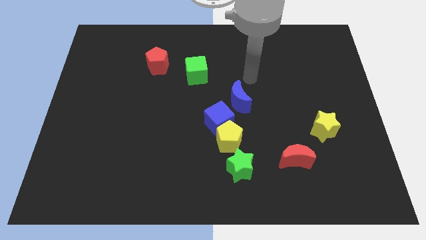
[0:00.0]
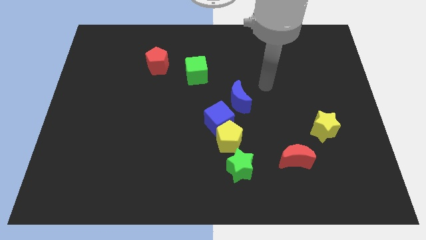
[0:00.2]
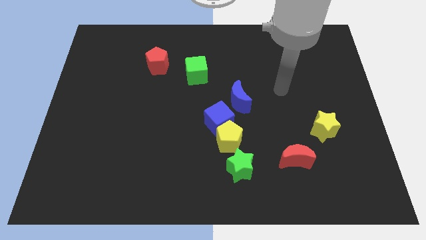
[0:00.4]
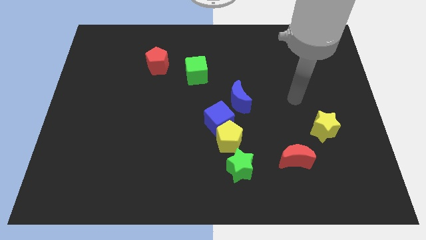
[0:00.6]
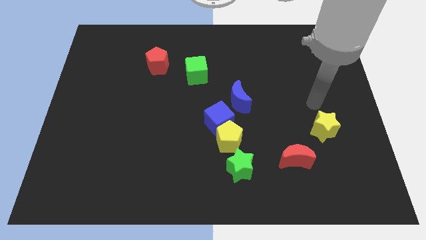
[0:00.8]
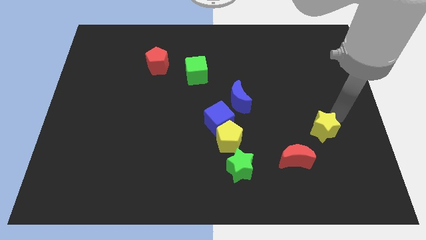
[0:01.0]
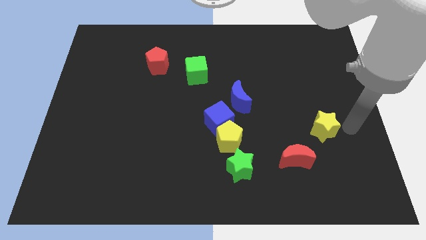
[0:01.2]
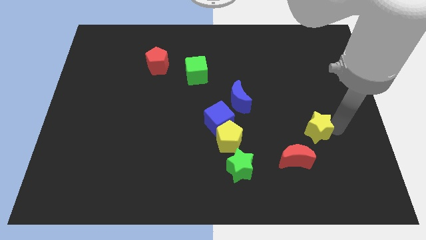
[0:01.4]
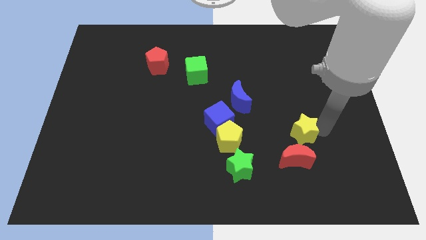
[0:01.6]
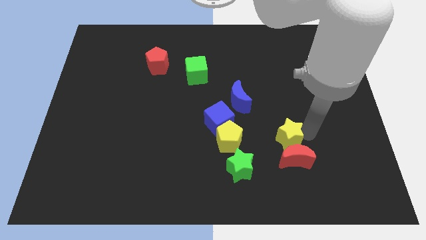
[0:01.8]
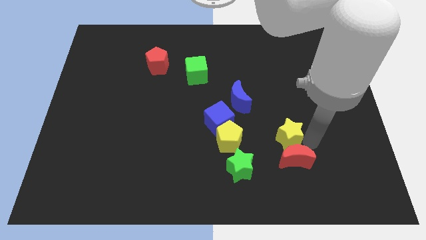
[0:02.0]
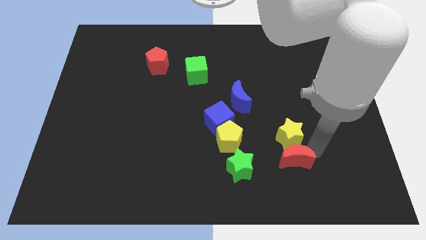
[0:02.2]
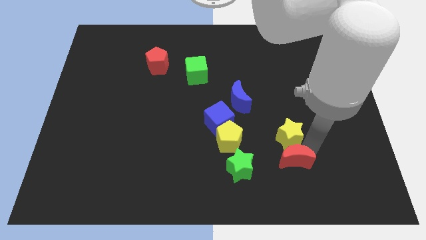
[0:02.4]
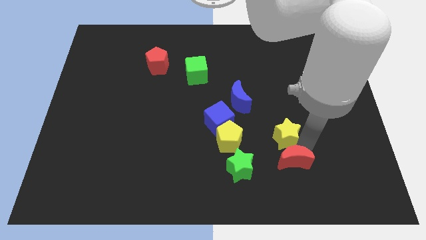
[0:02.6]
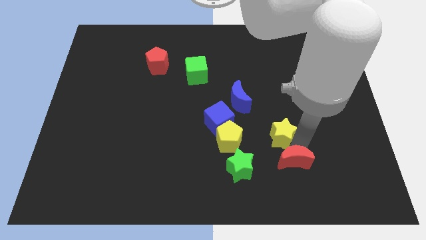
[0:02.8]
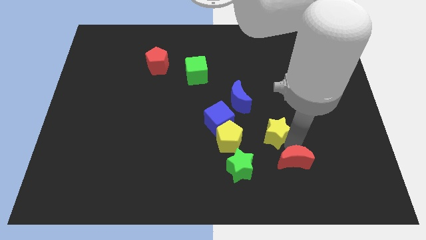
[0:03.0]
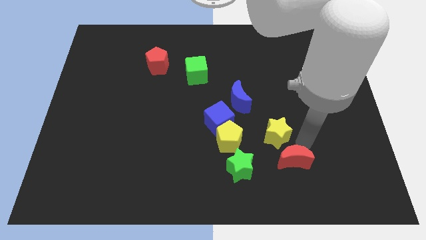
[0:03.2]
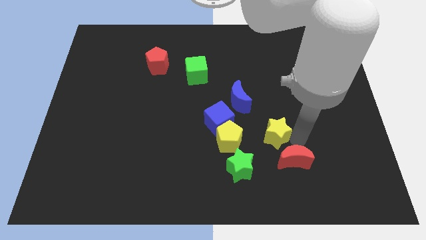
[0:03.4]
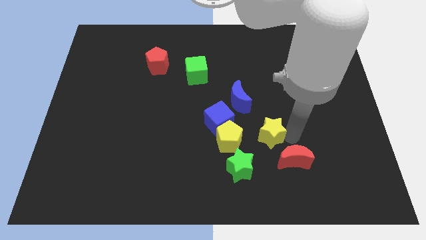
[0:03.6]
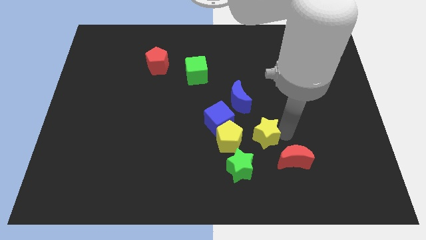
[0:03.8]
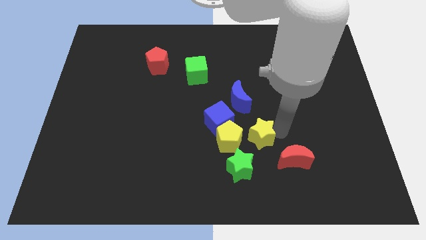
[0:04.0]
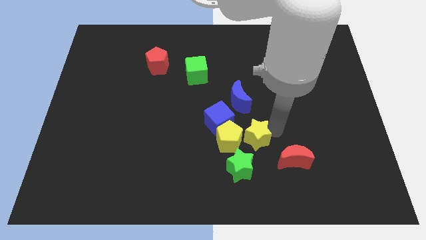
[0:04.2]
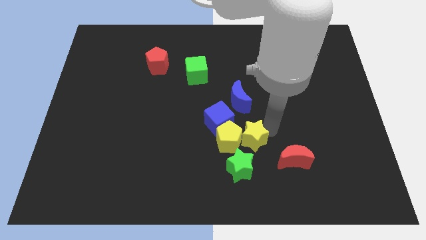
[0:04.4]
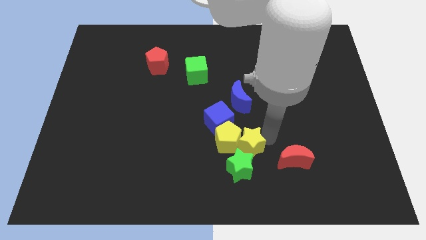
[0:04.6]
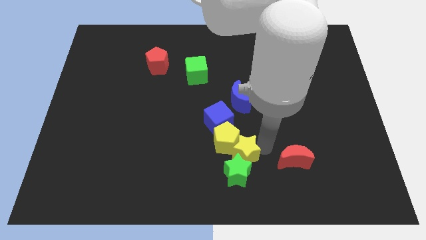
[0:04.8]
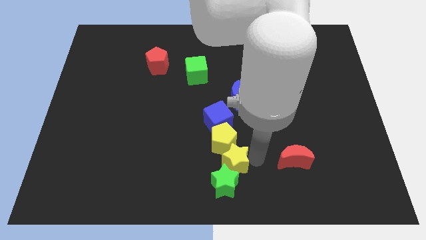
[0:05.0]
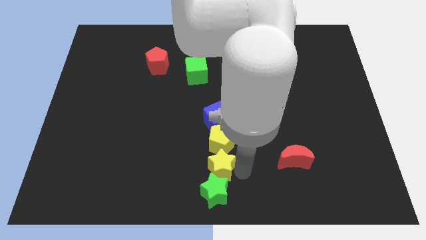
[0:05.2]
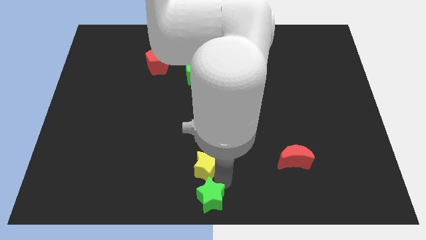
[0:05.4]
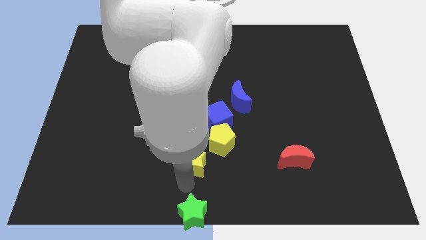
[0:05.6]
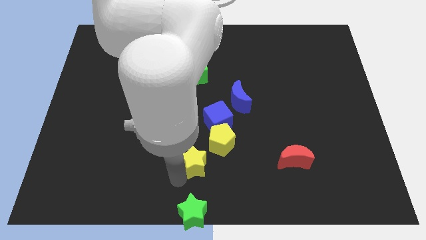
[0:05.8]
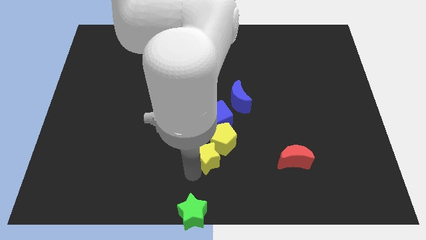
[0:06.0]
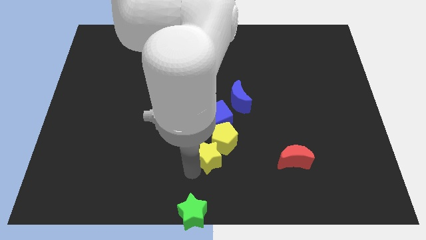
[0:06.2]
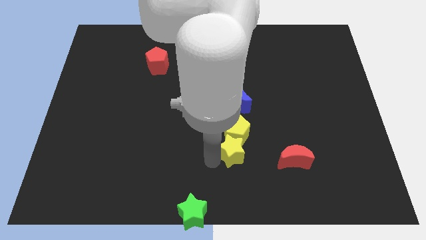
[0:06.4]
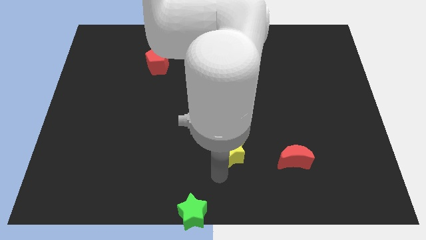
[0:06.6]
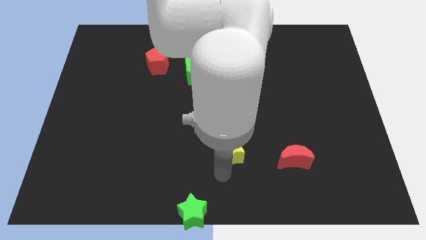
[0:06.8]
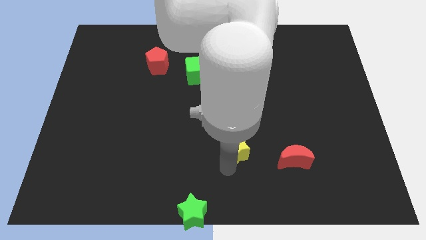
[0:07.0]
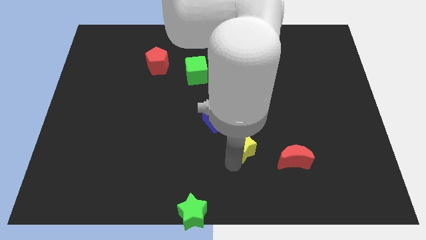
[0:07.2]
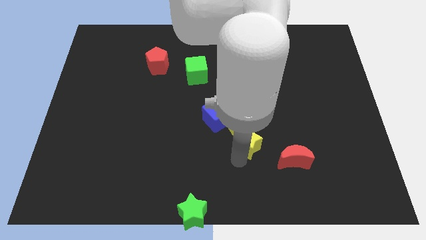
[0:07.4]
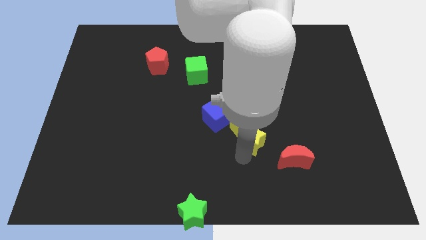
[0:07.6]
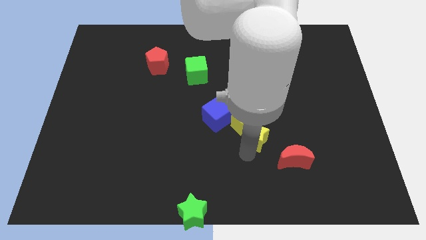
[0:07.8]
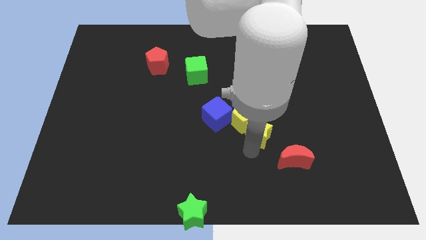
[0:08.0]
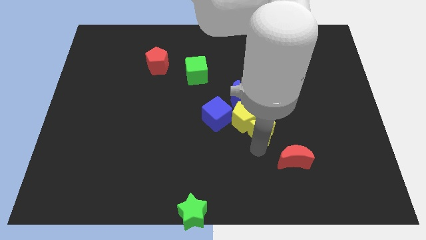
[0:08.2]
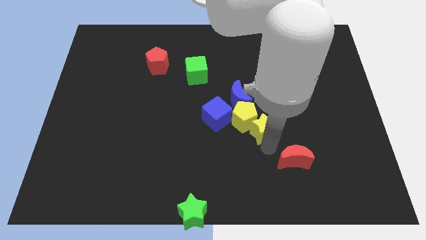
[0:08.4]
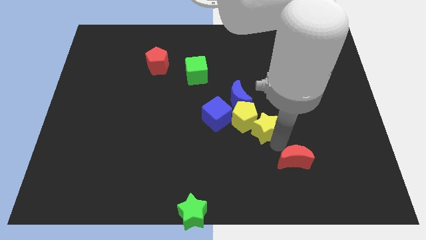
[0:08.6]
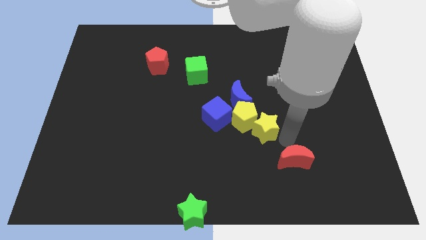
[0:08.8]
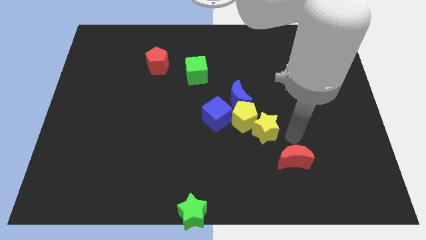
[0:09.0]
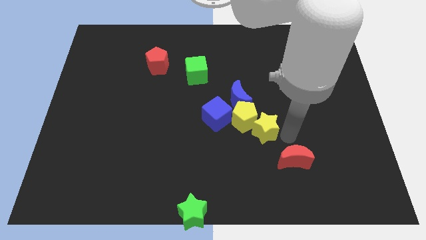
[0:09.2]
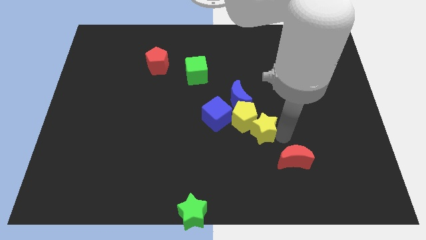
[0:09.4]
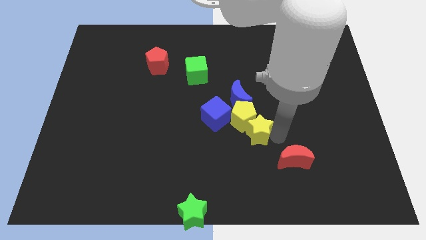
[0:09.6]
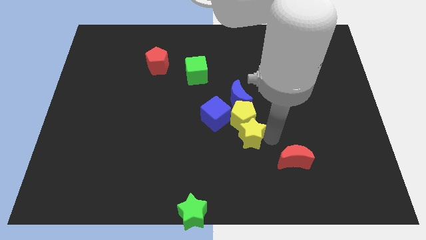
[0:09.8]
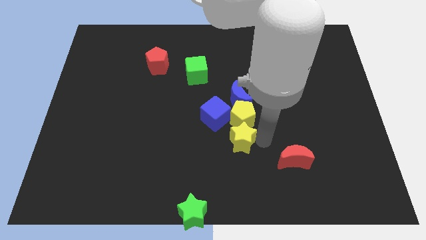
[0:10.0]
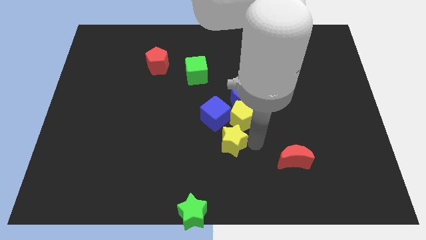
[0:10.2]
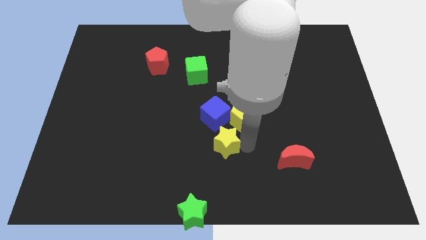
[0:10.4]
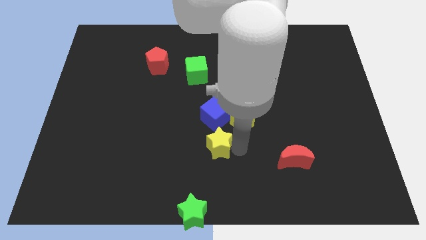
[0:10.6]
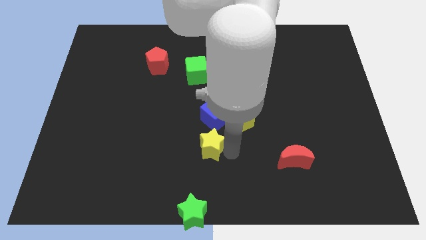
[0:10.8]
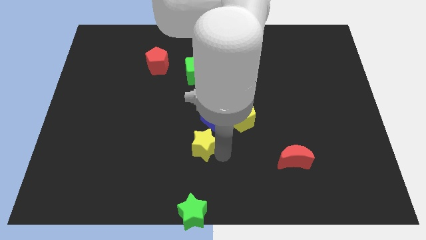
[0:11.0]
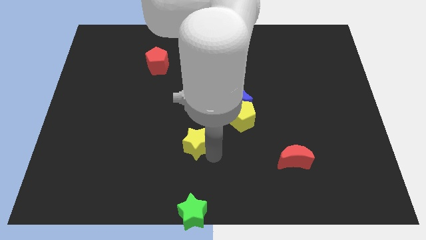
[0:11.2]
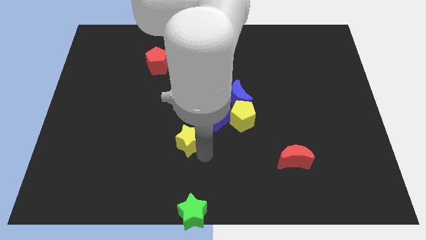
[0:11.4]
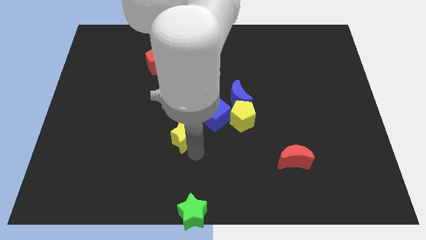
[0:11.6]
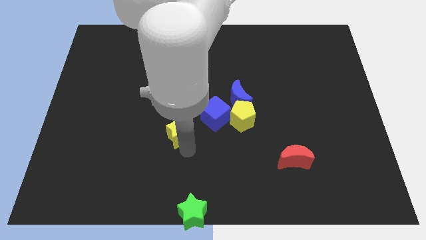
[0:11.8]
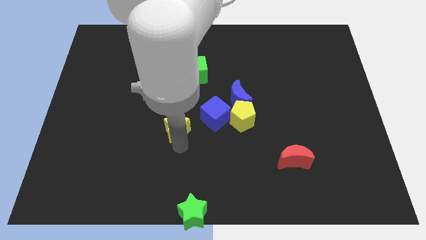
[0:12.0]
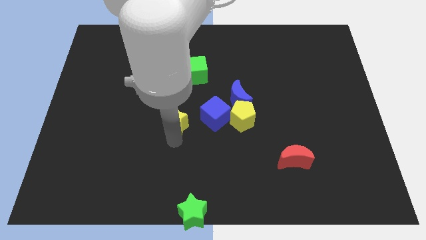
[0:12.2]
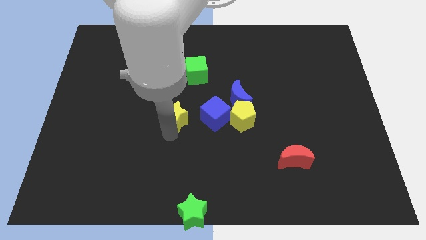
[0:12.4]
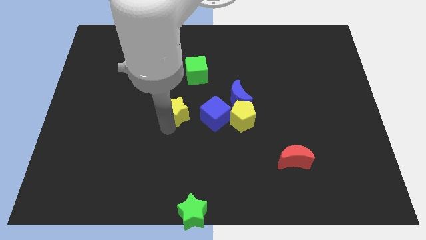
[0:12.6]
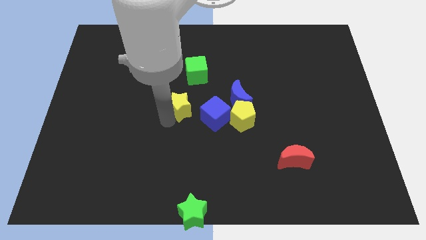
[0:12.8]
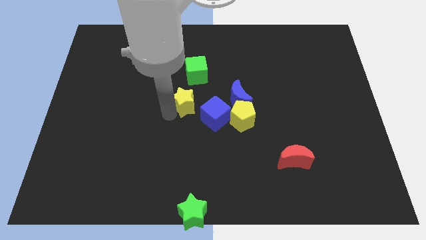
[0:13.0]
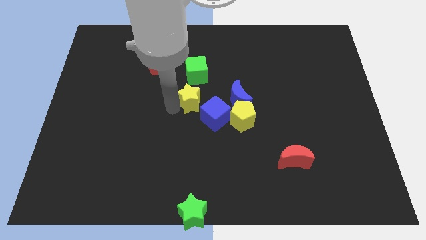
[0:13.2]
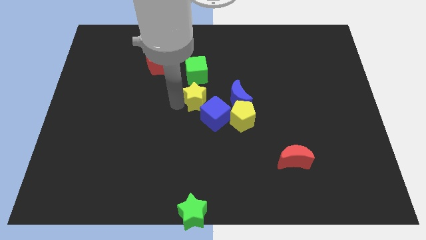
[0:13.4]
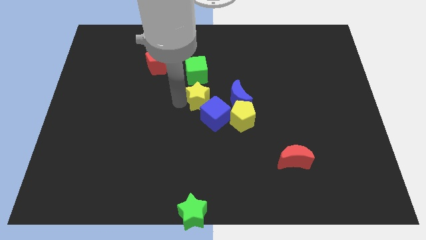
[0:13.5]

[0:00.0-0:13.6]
slide the yellow star close to the blue cube
